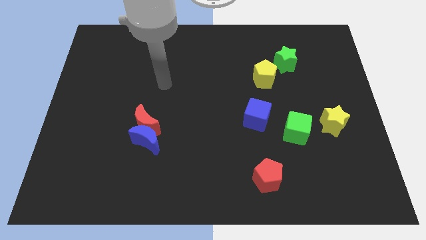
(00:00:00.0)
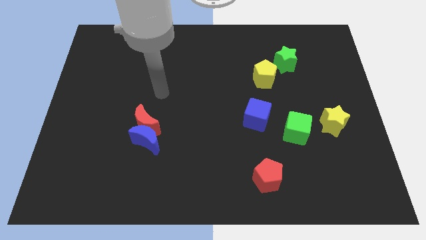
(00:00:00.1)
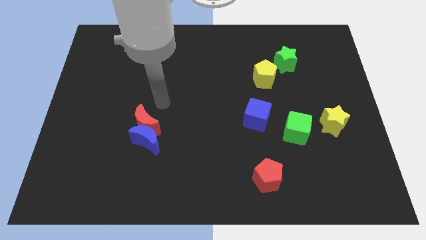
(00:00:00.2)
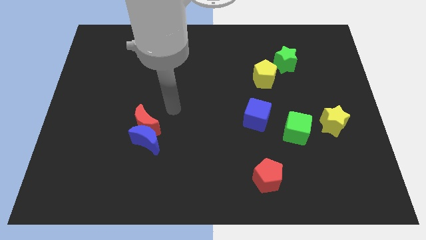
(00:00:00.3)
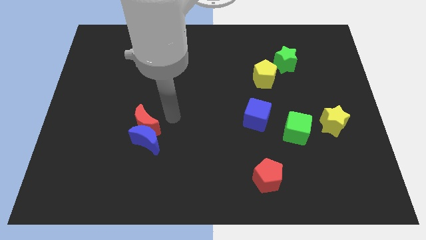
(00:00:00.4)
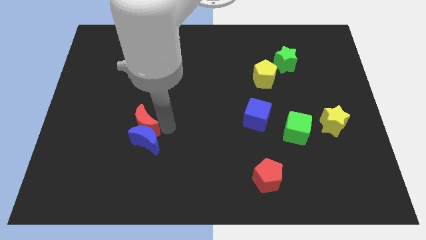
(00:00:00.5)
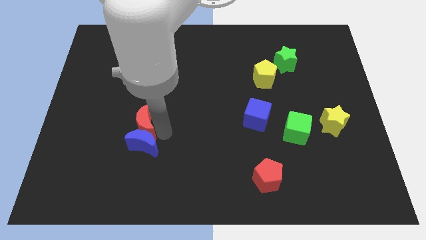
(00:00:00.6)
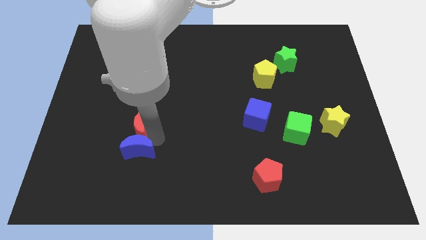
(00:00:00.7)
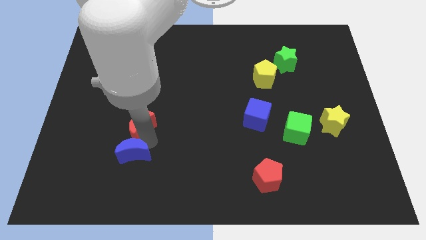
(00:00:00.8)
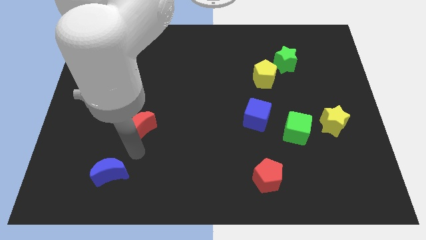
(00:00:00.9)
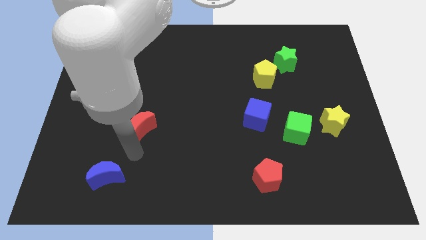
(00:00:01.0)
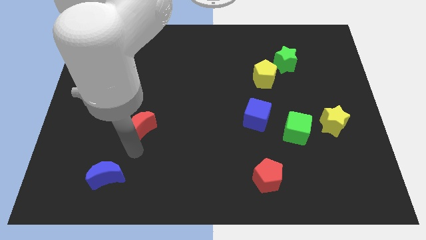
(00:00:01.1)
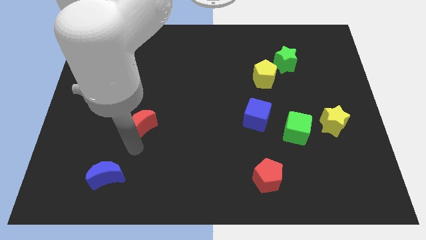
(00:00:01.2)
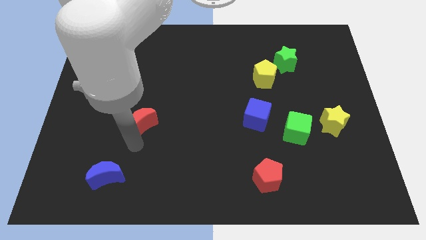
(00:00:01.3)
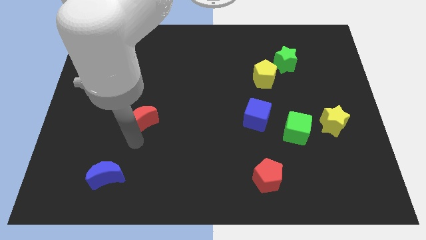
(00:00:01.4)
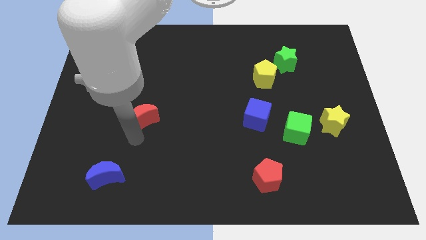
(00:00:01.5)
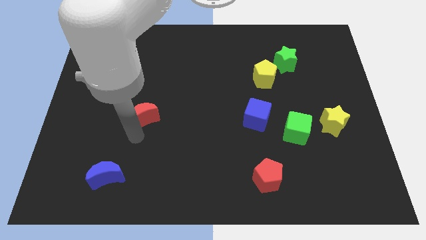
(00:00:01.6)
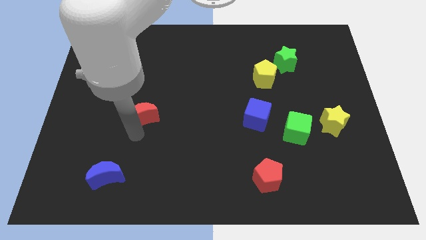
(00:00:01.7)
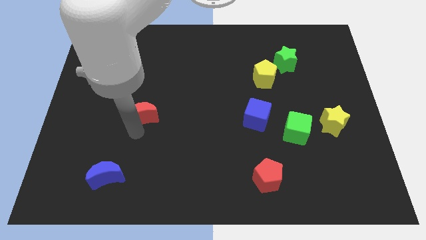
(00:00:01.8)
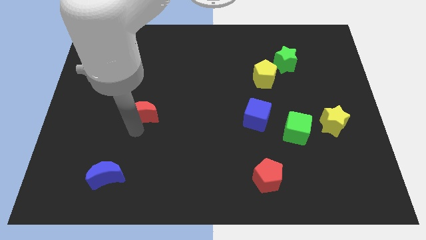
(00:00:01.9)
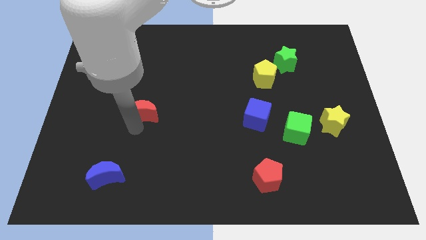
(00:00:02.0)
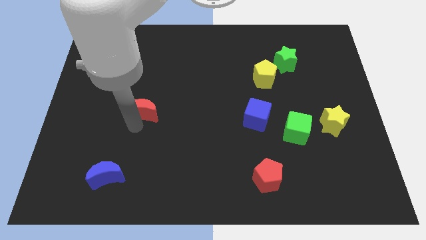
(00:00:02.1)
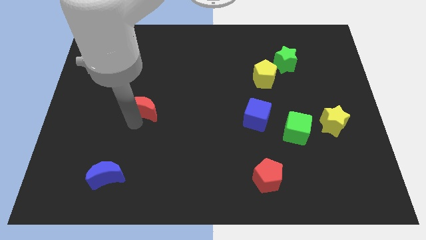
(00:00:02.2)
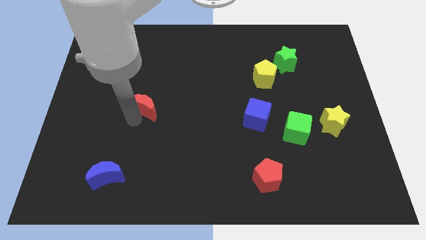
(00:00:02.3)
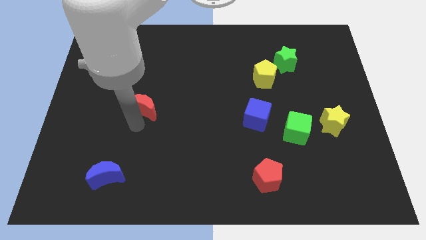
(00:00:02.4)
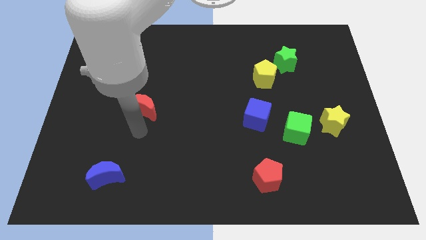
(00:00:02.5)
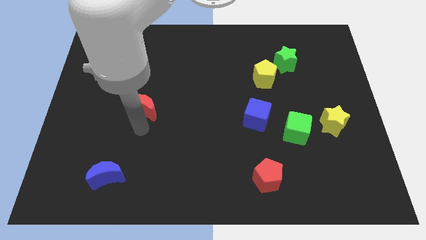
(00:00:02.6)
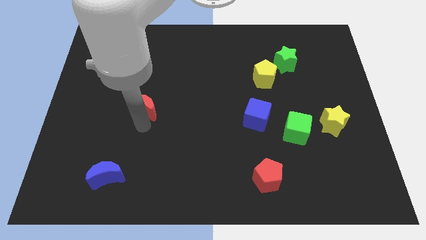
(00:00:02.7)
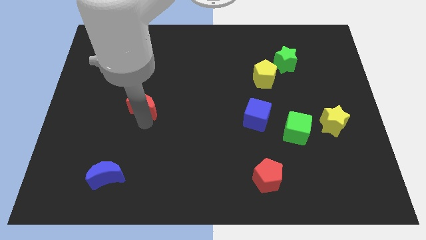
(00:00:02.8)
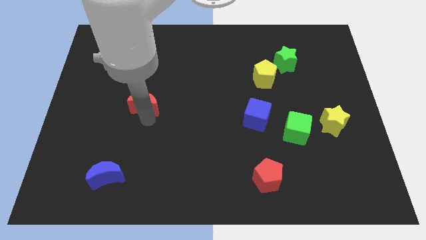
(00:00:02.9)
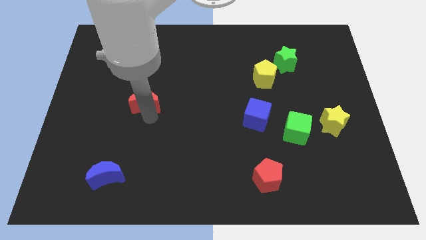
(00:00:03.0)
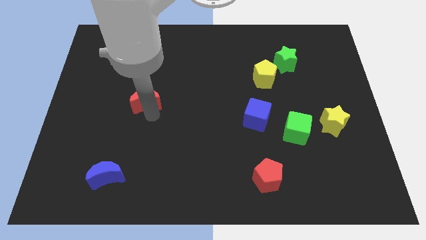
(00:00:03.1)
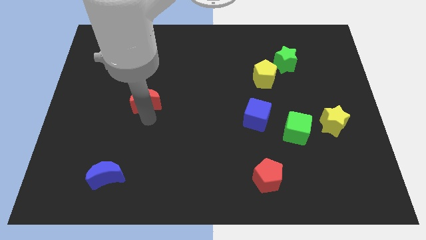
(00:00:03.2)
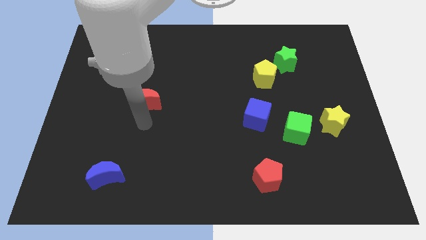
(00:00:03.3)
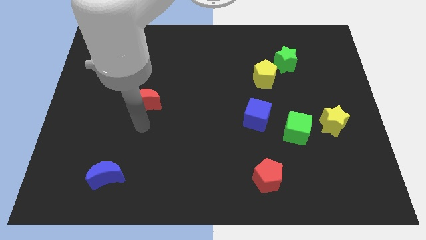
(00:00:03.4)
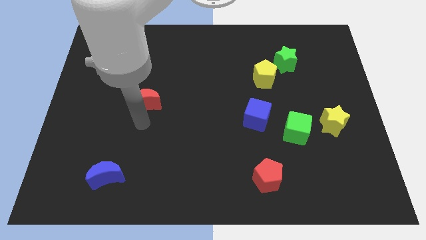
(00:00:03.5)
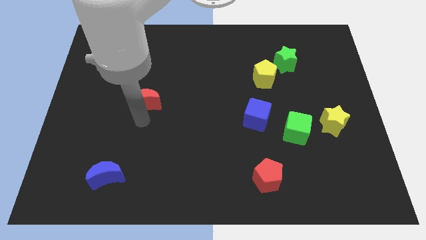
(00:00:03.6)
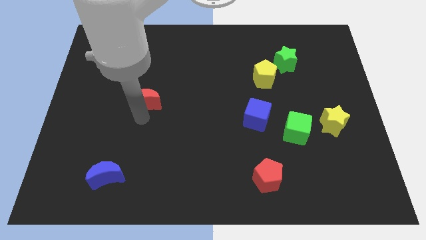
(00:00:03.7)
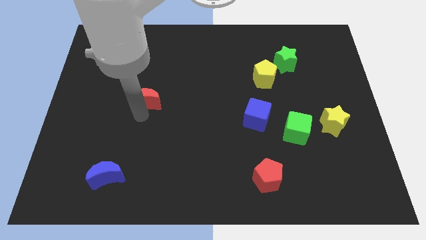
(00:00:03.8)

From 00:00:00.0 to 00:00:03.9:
slightly push the red moon upwards

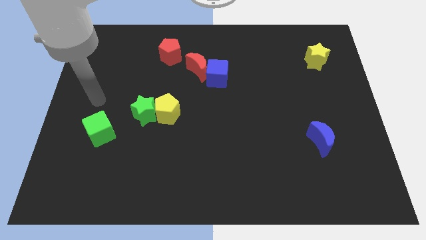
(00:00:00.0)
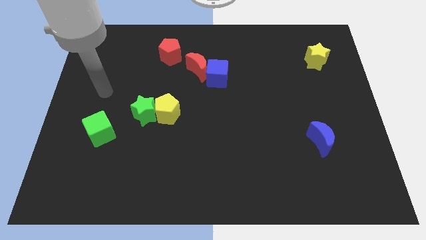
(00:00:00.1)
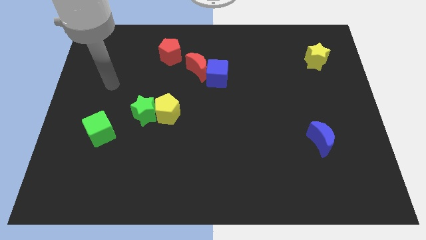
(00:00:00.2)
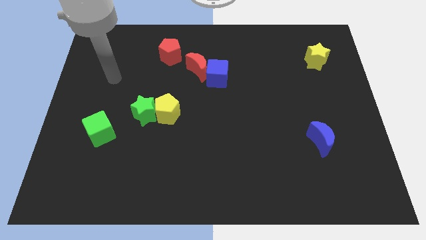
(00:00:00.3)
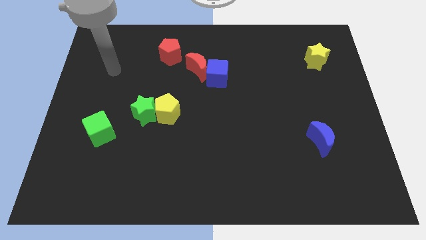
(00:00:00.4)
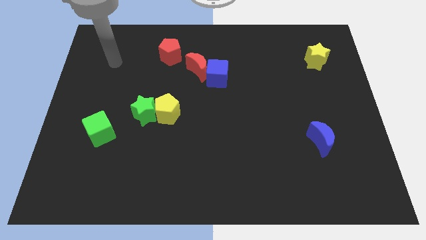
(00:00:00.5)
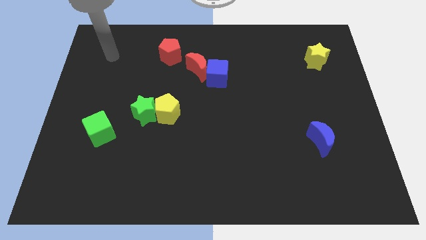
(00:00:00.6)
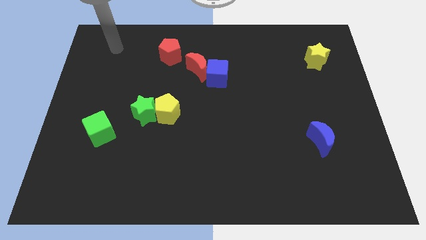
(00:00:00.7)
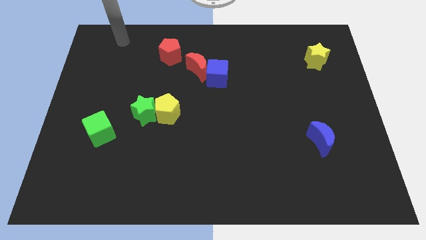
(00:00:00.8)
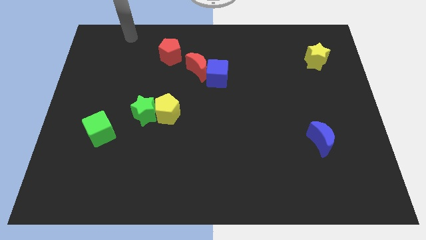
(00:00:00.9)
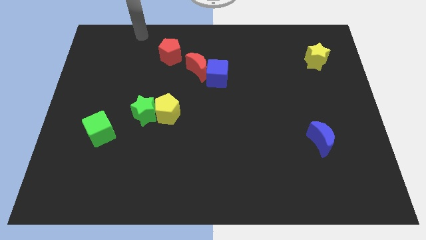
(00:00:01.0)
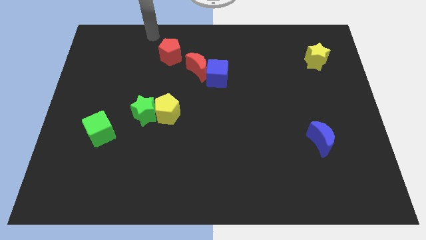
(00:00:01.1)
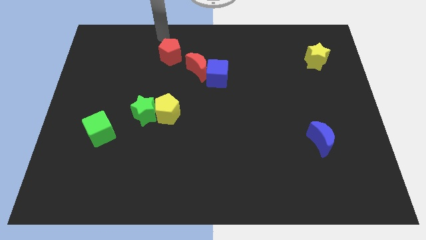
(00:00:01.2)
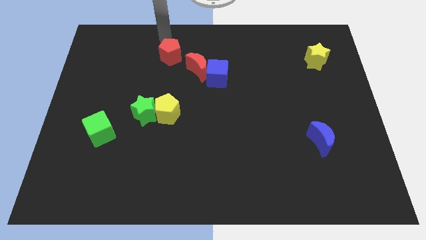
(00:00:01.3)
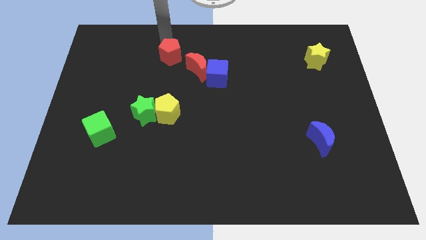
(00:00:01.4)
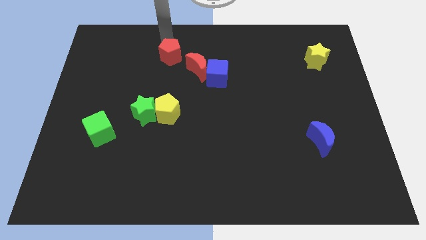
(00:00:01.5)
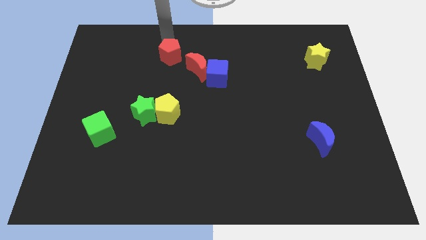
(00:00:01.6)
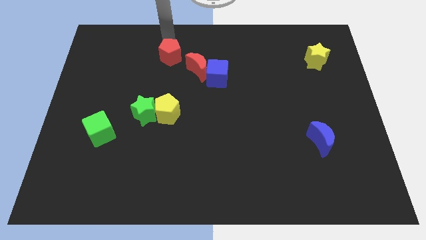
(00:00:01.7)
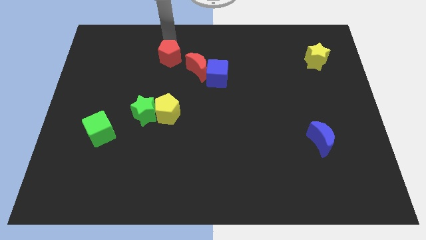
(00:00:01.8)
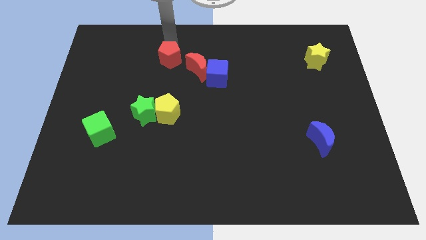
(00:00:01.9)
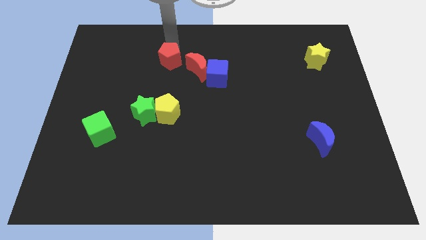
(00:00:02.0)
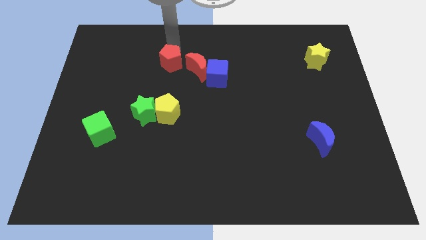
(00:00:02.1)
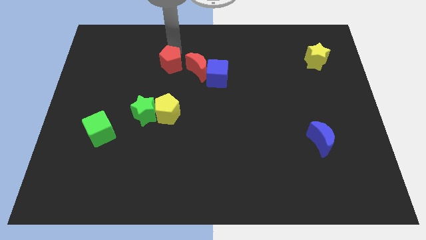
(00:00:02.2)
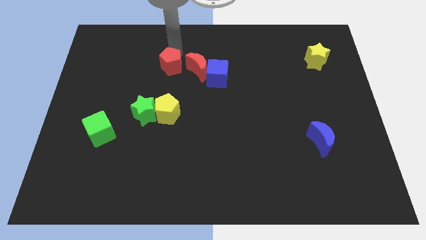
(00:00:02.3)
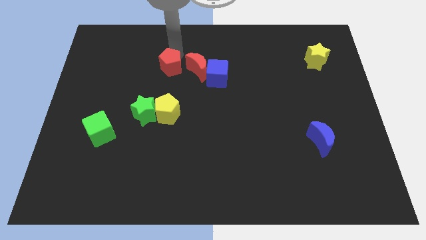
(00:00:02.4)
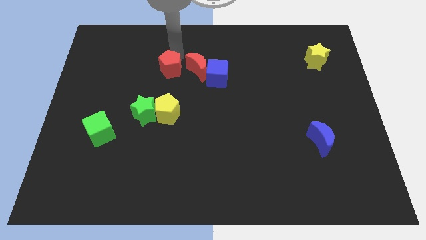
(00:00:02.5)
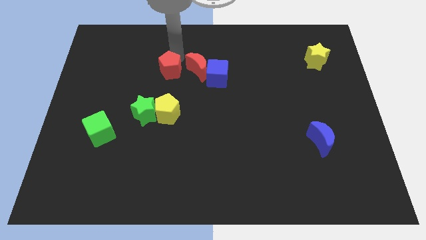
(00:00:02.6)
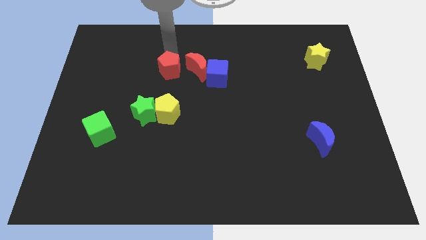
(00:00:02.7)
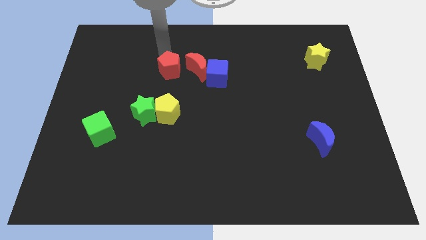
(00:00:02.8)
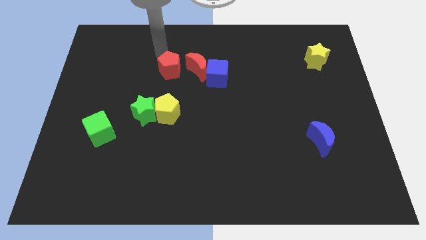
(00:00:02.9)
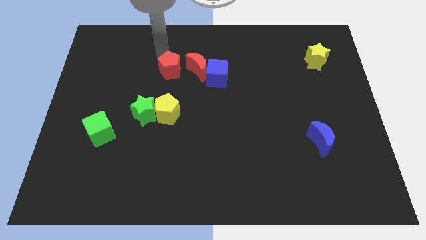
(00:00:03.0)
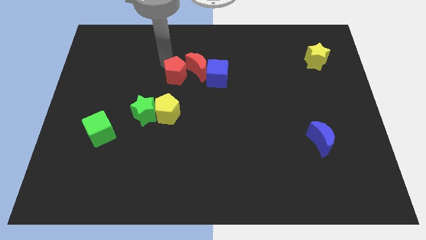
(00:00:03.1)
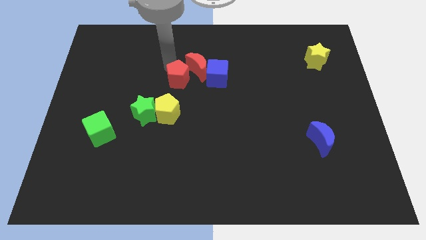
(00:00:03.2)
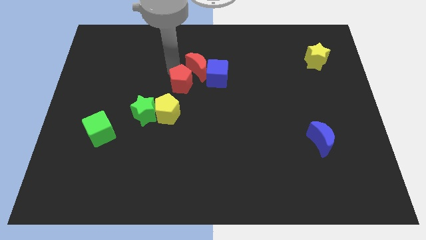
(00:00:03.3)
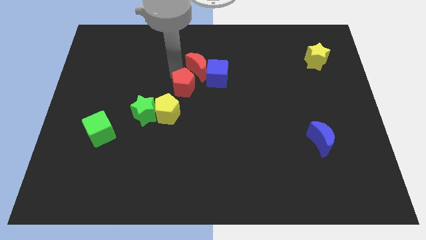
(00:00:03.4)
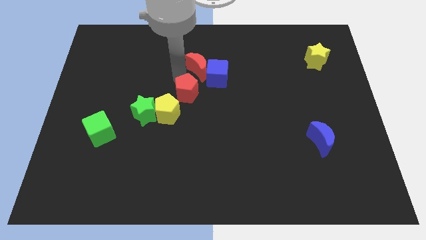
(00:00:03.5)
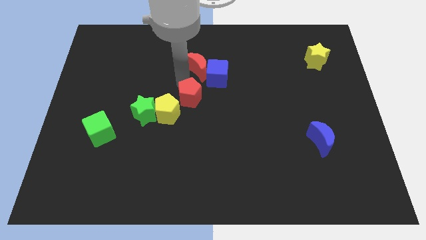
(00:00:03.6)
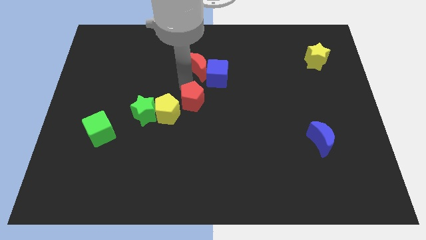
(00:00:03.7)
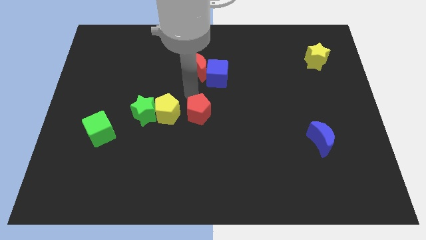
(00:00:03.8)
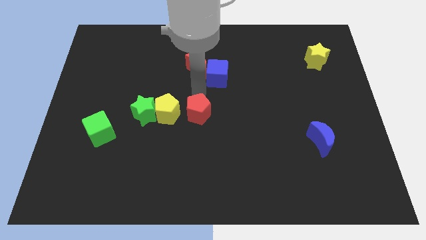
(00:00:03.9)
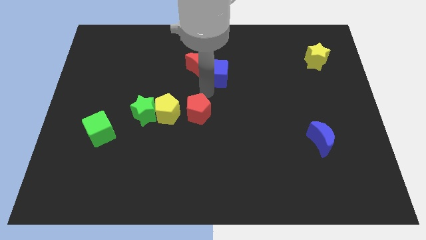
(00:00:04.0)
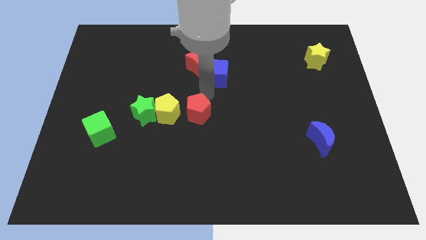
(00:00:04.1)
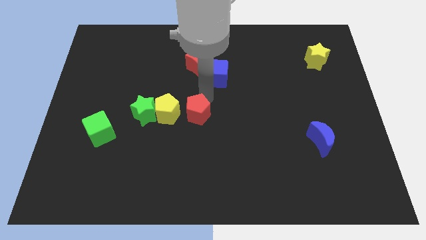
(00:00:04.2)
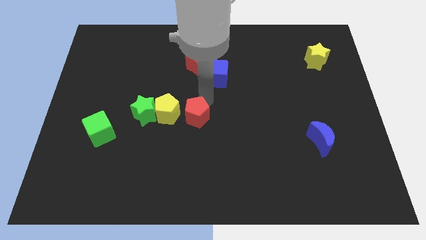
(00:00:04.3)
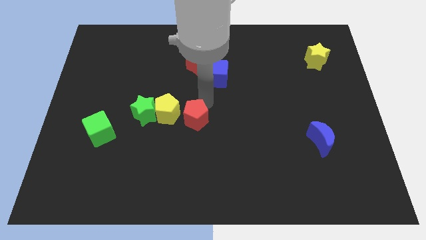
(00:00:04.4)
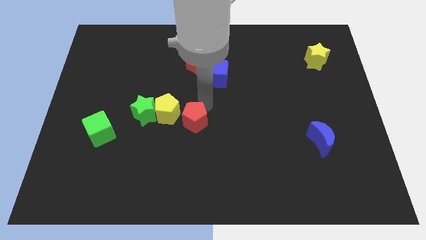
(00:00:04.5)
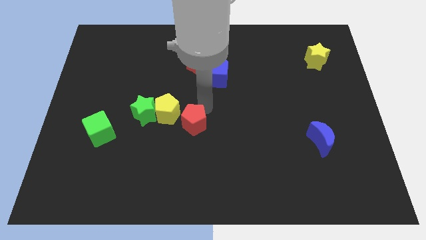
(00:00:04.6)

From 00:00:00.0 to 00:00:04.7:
move the red pentagon down
